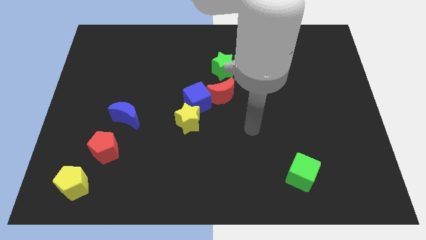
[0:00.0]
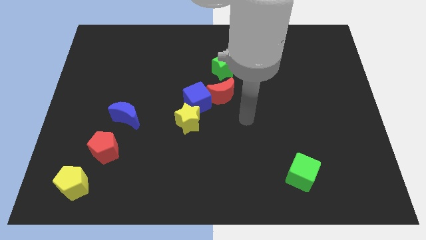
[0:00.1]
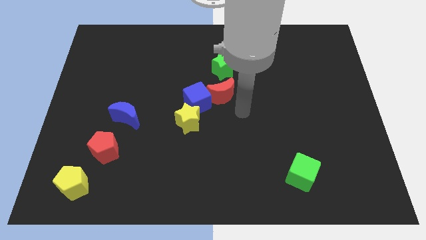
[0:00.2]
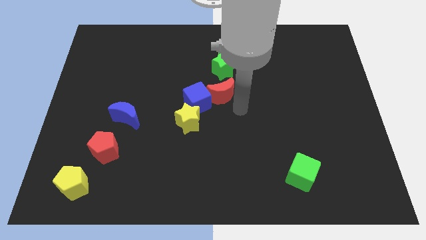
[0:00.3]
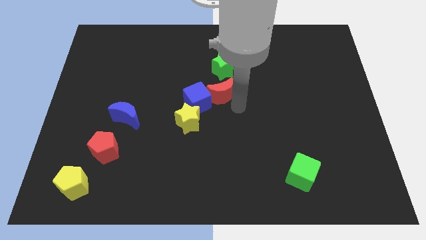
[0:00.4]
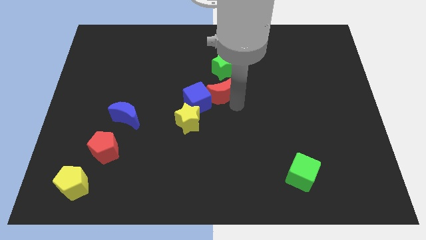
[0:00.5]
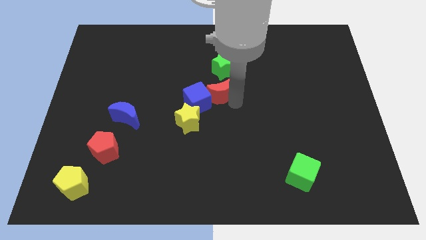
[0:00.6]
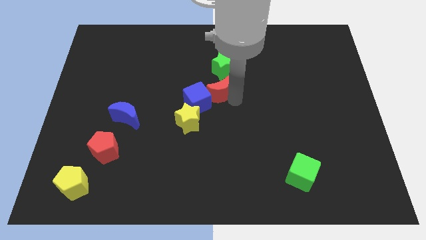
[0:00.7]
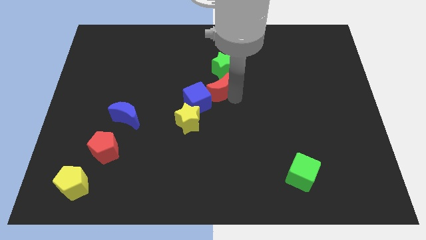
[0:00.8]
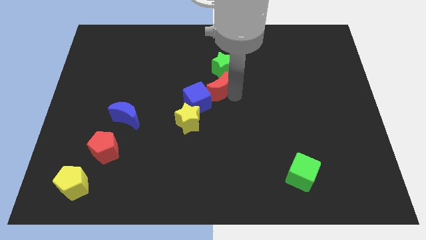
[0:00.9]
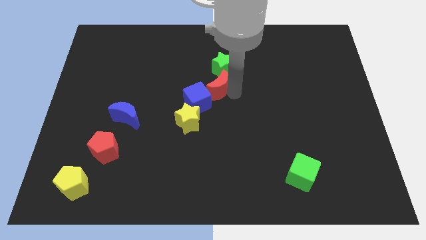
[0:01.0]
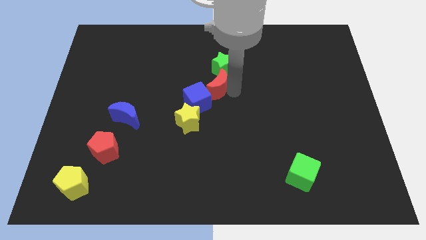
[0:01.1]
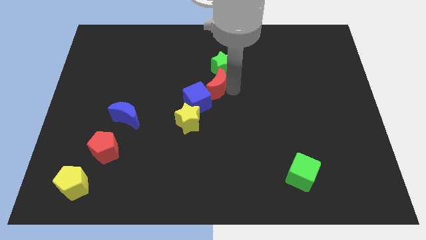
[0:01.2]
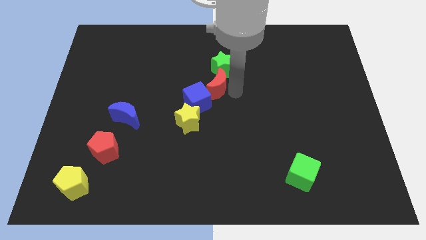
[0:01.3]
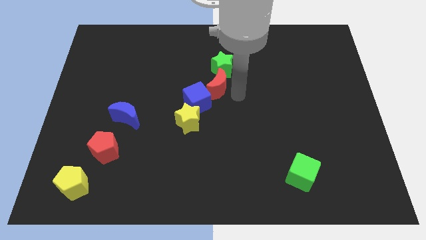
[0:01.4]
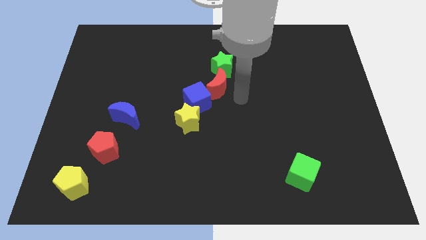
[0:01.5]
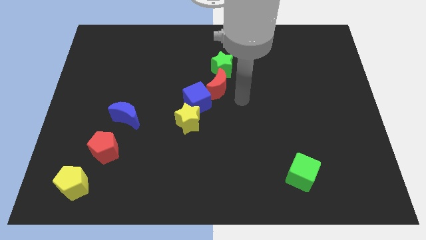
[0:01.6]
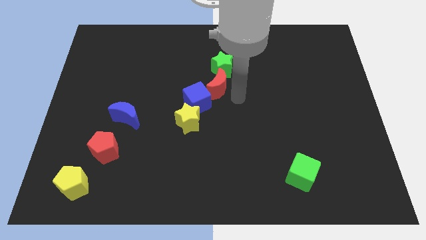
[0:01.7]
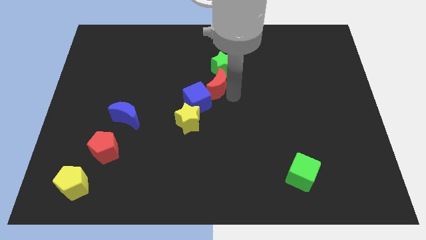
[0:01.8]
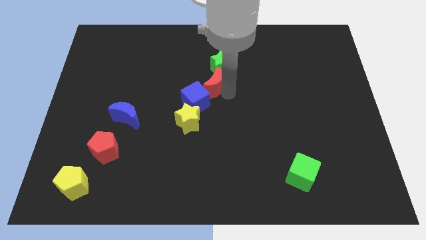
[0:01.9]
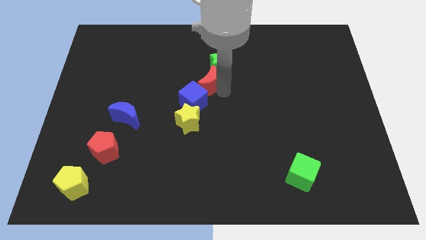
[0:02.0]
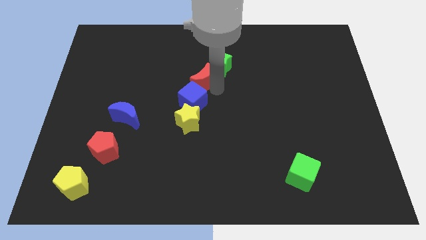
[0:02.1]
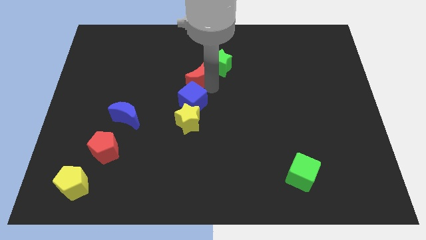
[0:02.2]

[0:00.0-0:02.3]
slightly push the red moon upwards and left diagonally

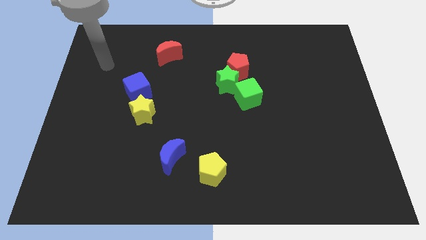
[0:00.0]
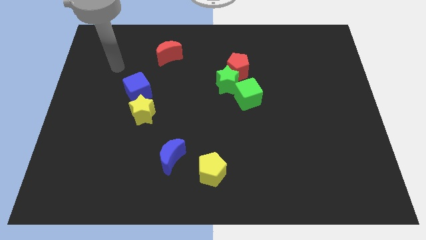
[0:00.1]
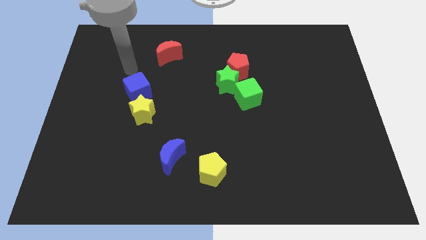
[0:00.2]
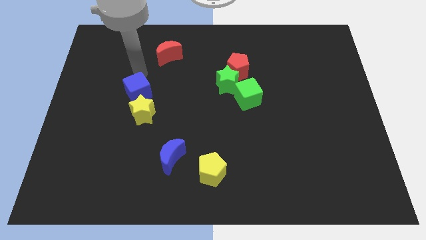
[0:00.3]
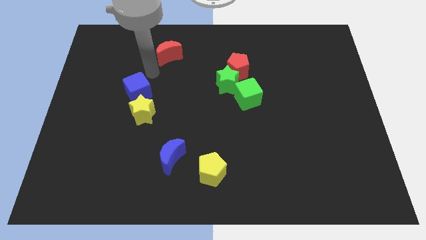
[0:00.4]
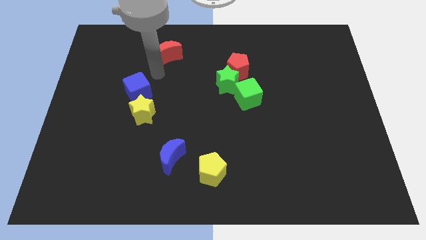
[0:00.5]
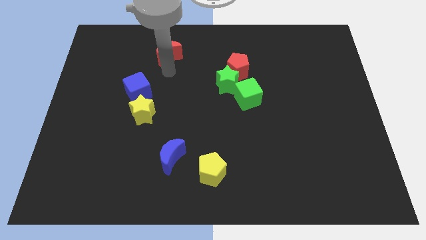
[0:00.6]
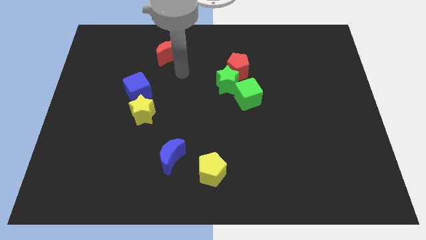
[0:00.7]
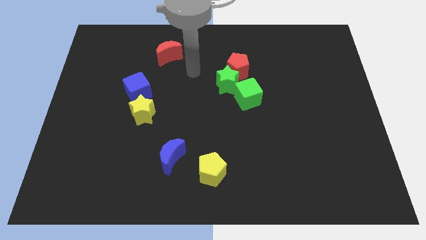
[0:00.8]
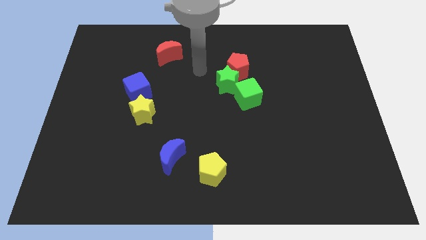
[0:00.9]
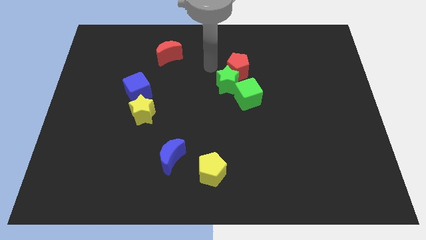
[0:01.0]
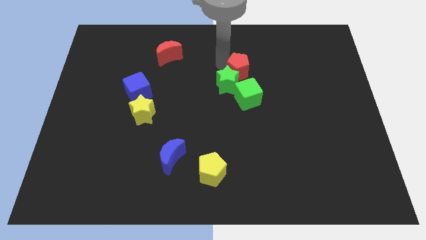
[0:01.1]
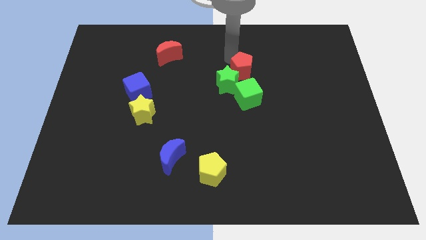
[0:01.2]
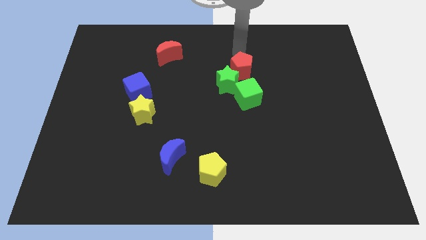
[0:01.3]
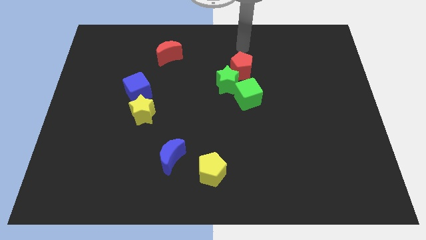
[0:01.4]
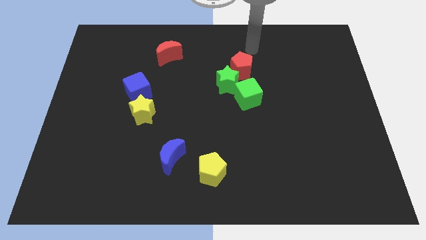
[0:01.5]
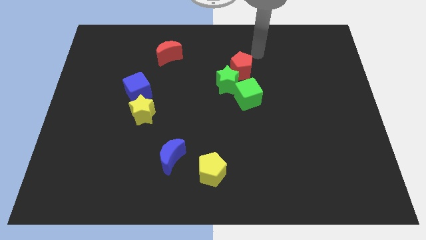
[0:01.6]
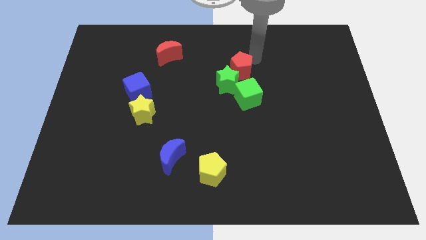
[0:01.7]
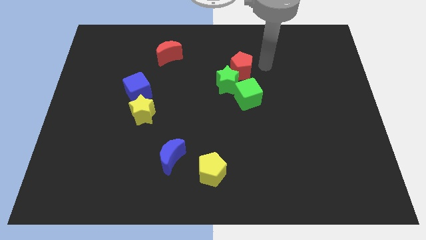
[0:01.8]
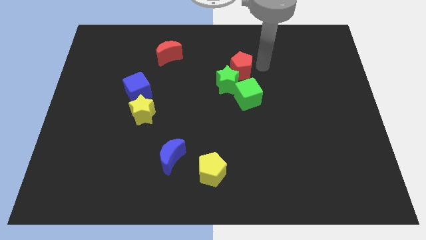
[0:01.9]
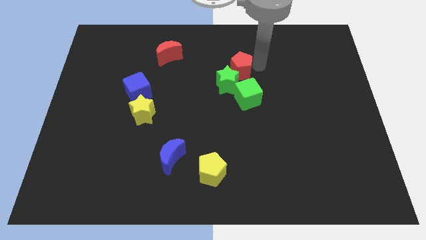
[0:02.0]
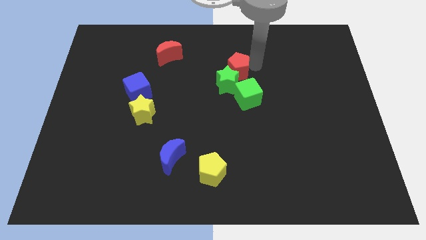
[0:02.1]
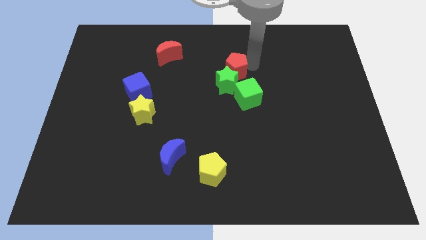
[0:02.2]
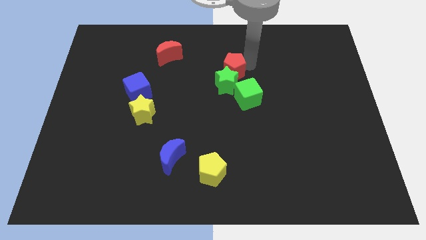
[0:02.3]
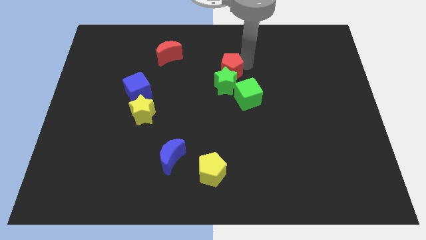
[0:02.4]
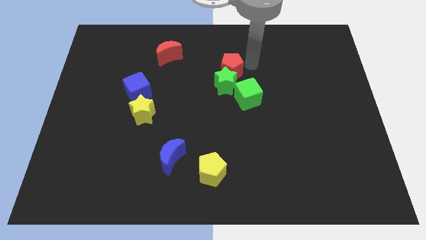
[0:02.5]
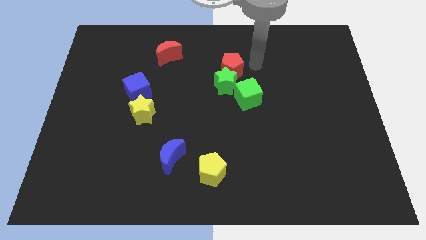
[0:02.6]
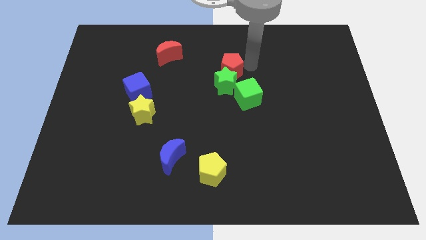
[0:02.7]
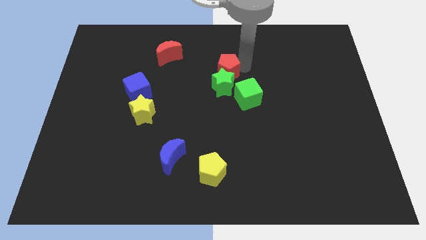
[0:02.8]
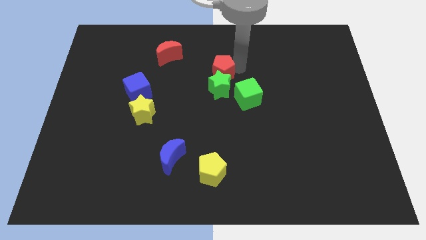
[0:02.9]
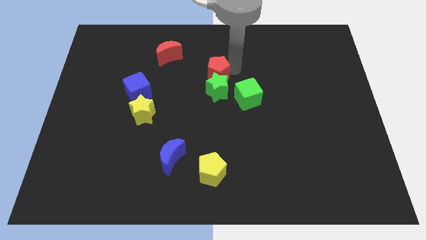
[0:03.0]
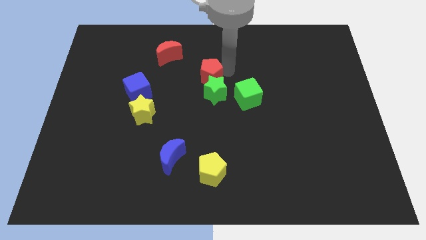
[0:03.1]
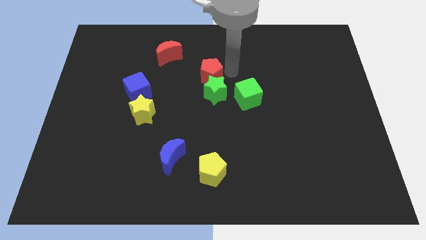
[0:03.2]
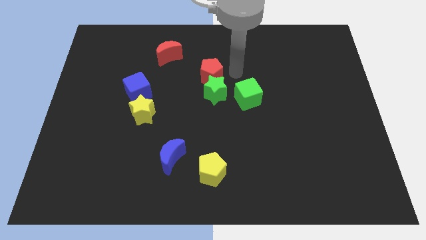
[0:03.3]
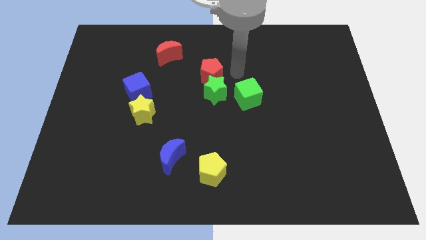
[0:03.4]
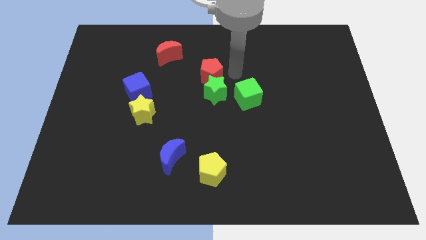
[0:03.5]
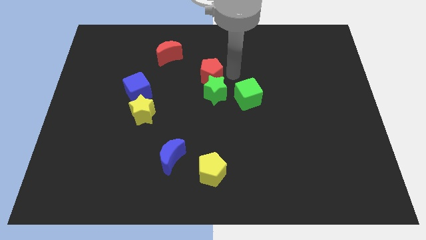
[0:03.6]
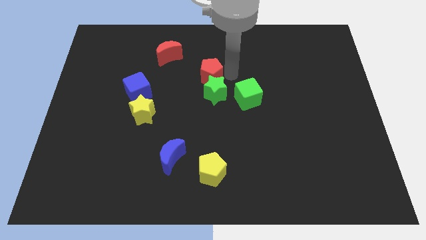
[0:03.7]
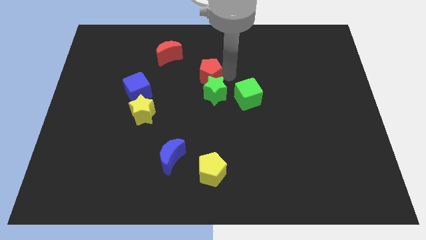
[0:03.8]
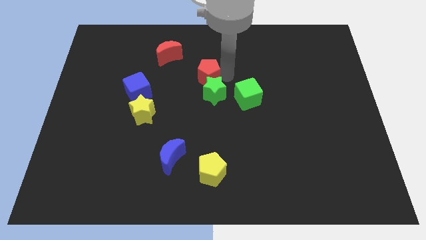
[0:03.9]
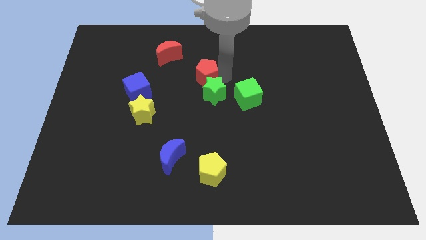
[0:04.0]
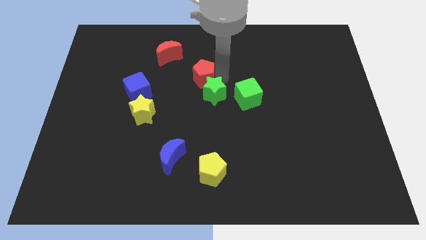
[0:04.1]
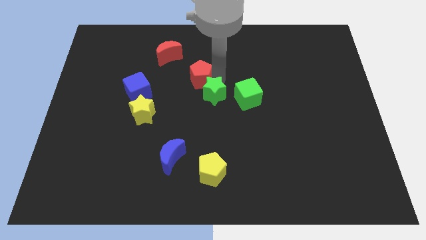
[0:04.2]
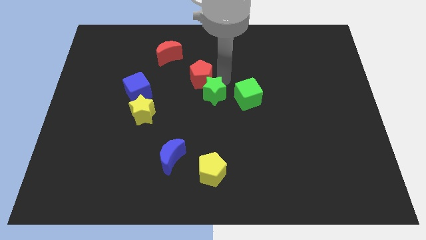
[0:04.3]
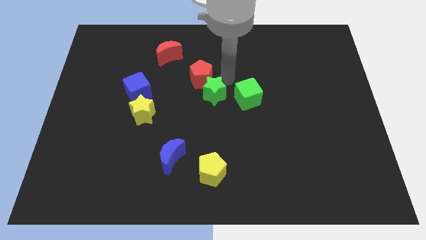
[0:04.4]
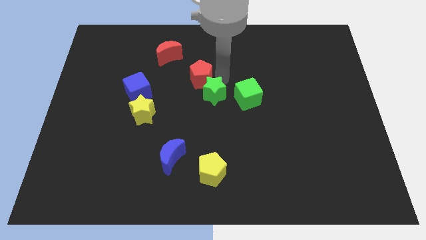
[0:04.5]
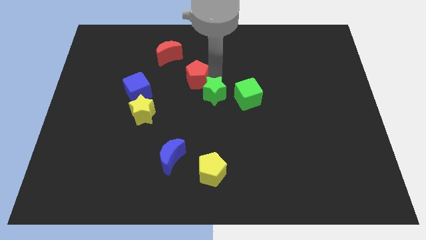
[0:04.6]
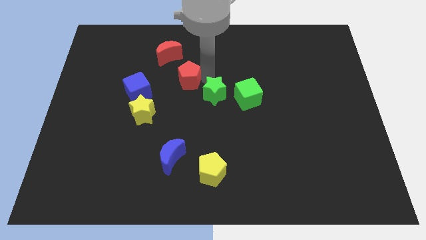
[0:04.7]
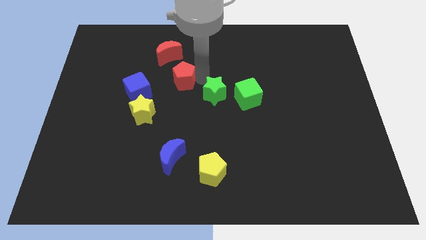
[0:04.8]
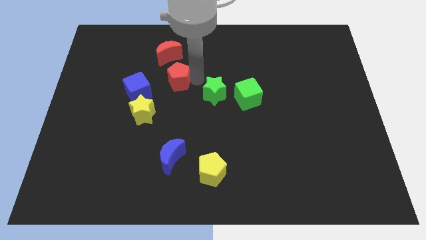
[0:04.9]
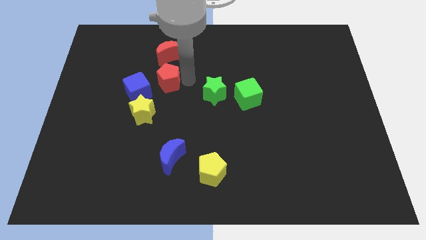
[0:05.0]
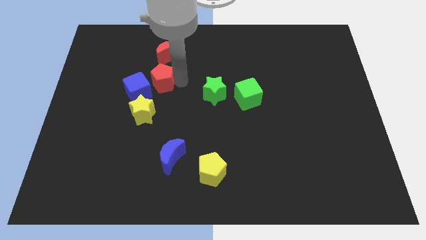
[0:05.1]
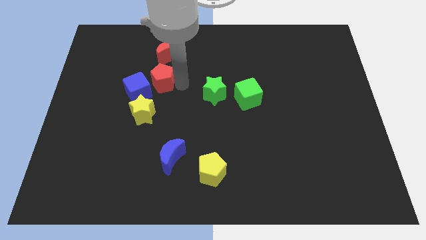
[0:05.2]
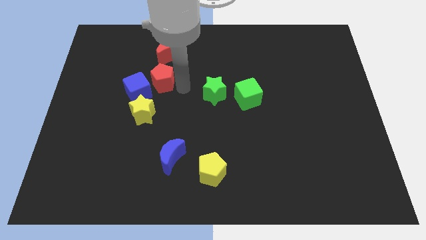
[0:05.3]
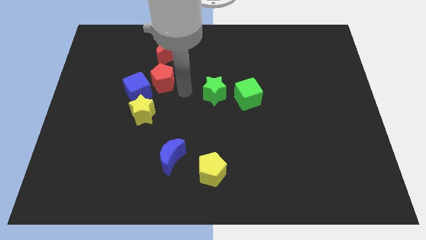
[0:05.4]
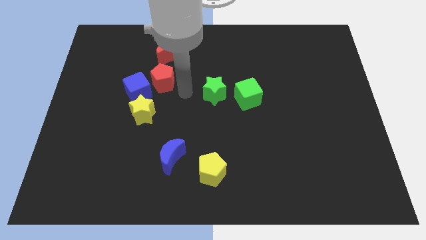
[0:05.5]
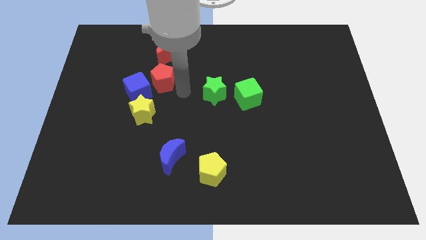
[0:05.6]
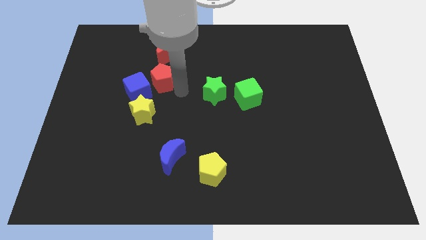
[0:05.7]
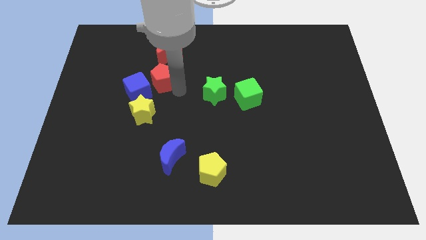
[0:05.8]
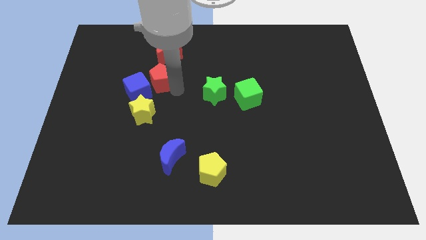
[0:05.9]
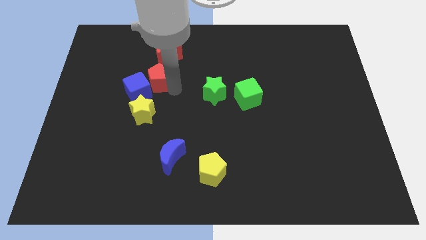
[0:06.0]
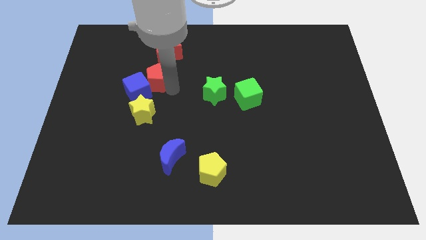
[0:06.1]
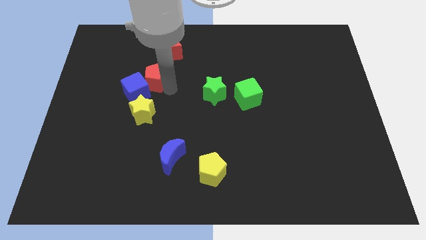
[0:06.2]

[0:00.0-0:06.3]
push the red pentagon left
